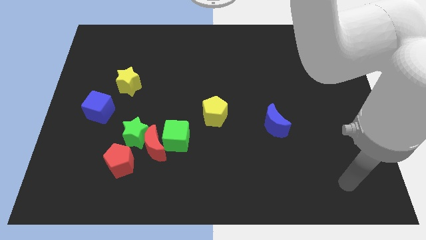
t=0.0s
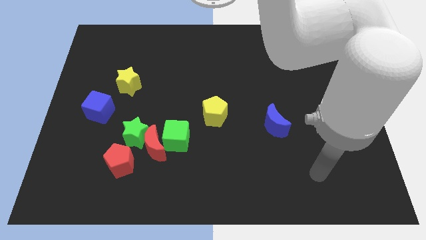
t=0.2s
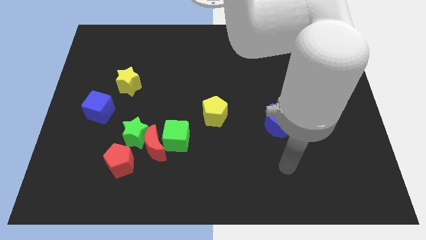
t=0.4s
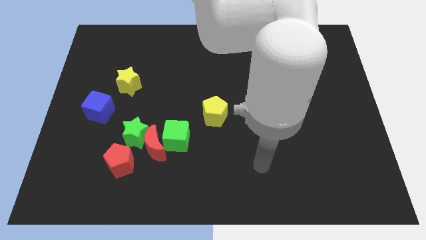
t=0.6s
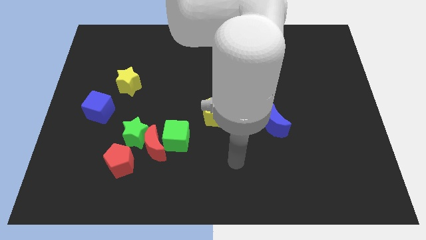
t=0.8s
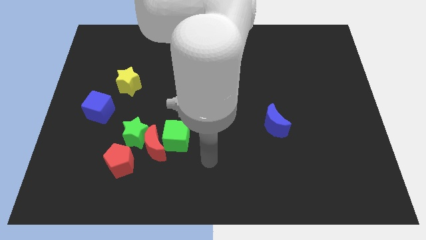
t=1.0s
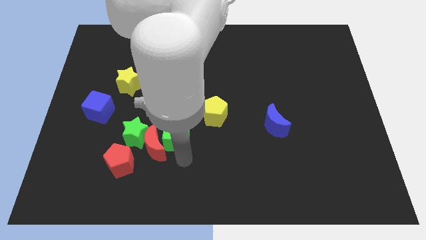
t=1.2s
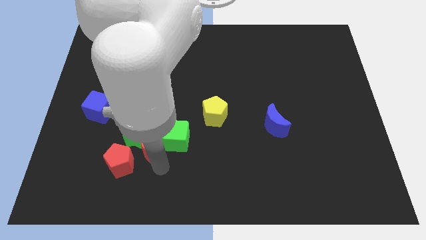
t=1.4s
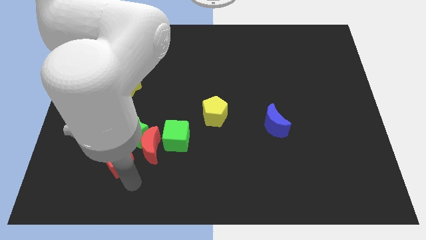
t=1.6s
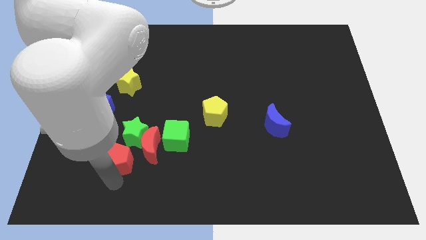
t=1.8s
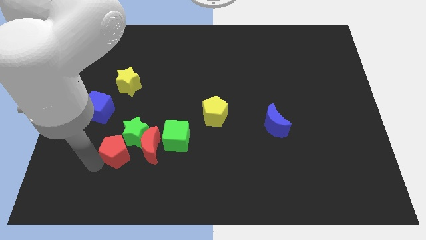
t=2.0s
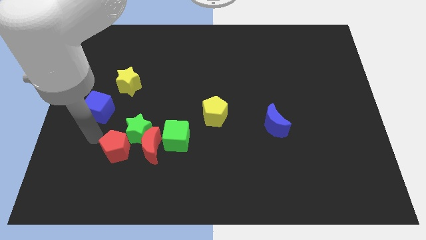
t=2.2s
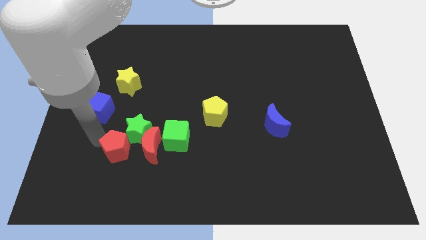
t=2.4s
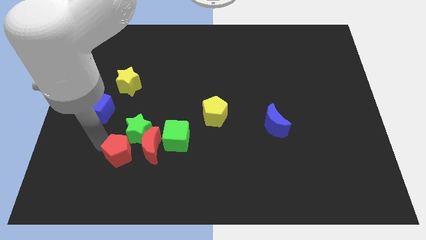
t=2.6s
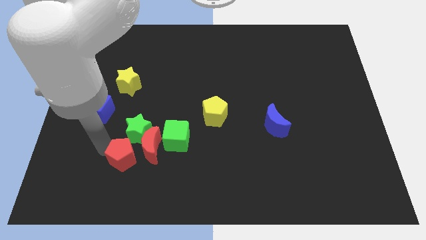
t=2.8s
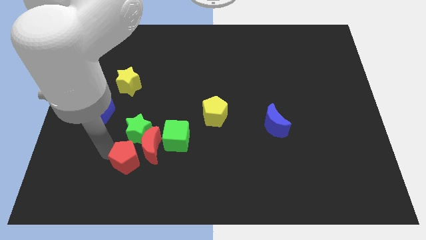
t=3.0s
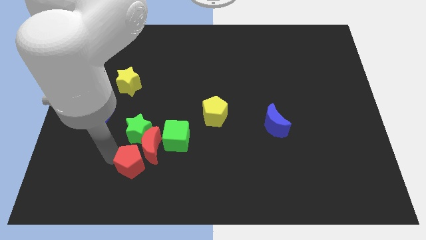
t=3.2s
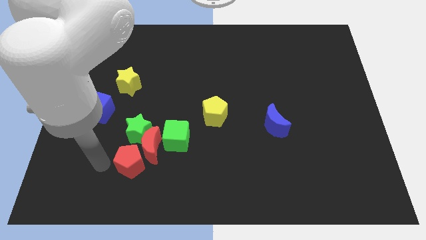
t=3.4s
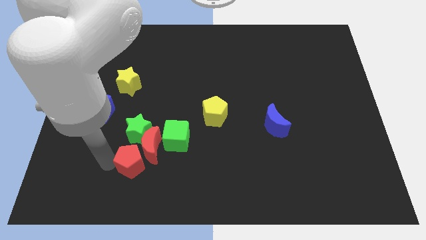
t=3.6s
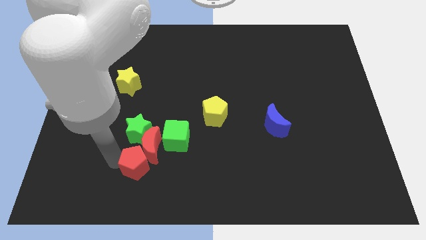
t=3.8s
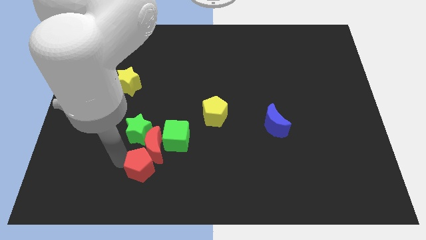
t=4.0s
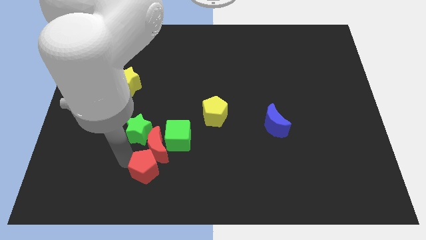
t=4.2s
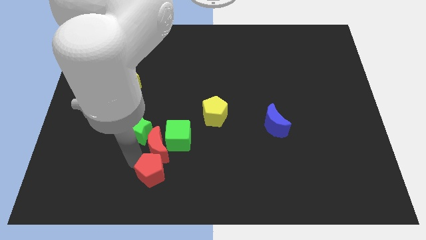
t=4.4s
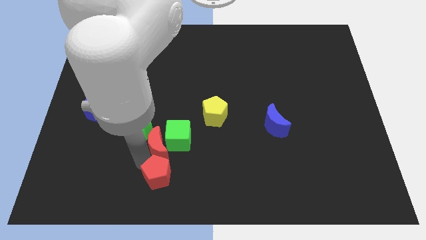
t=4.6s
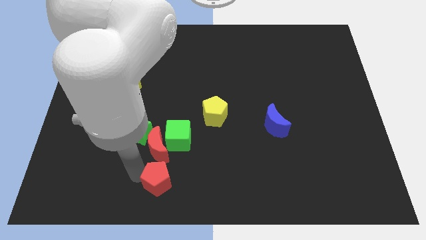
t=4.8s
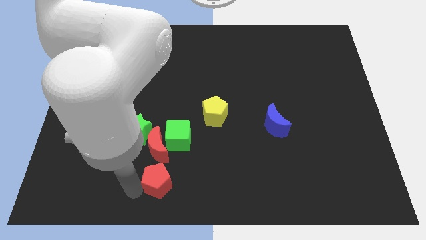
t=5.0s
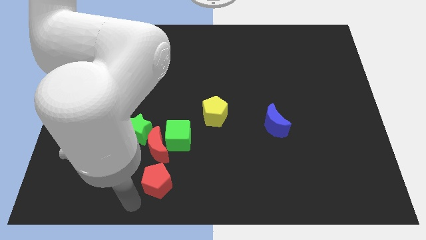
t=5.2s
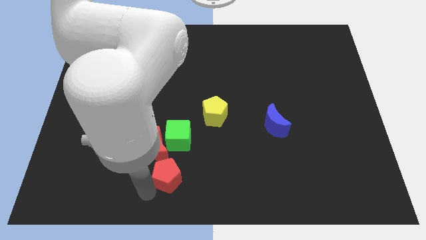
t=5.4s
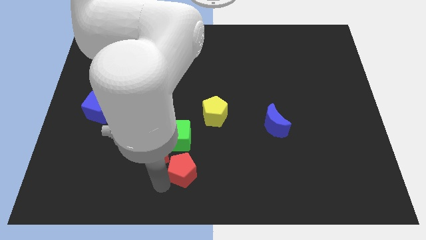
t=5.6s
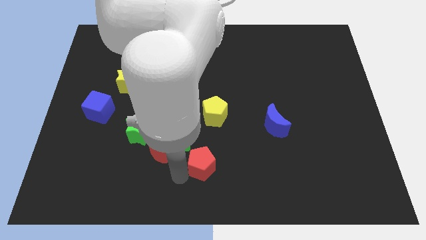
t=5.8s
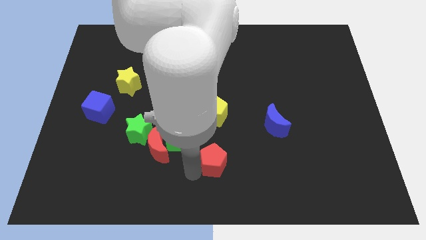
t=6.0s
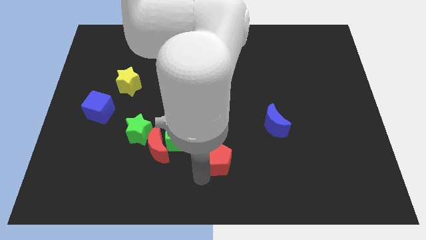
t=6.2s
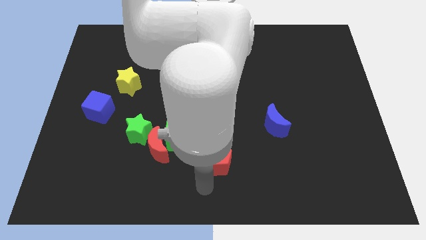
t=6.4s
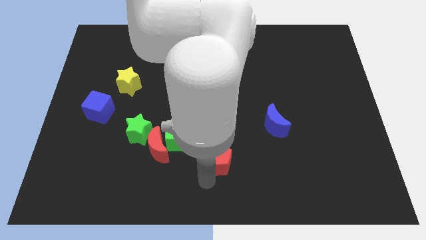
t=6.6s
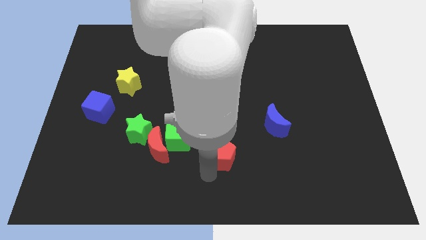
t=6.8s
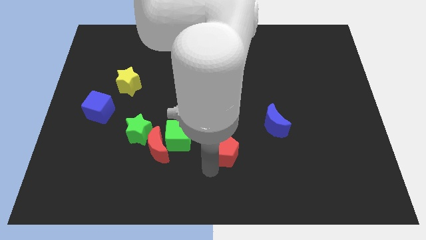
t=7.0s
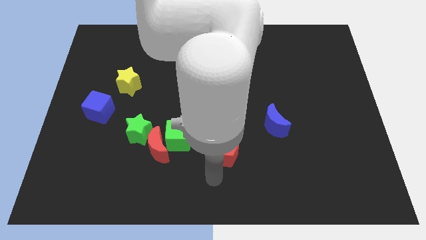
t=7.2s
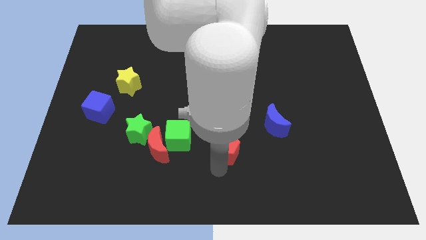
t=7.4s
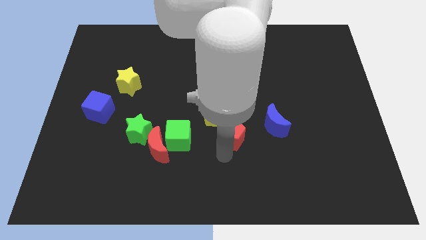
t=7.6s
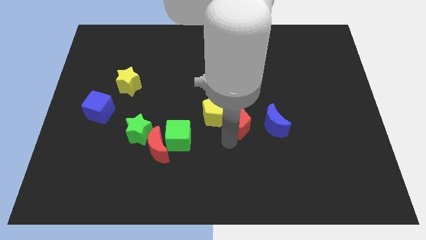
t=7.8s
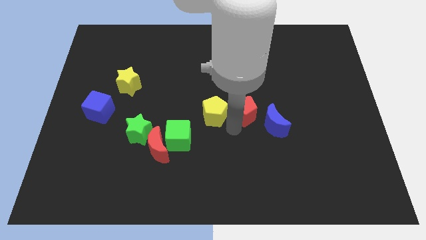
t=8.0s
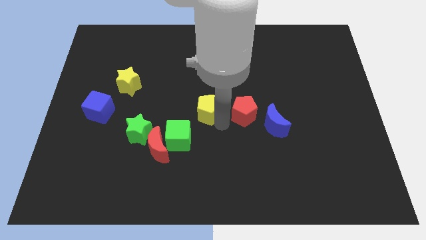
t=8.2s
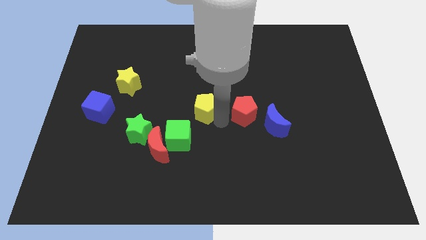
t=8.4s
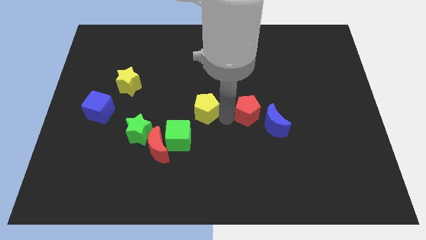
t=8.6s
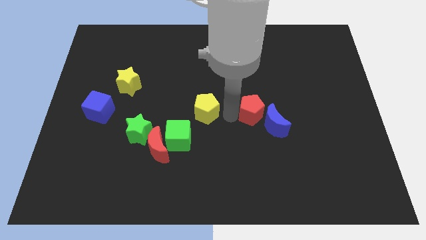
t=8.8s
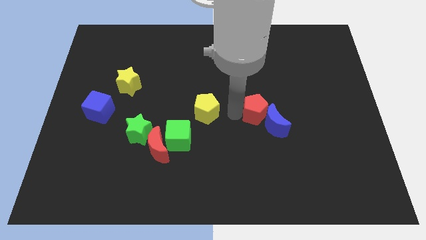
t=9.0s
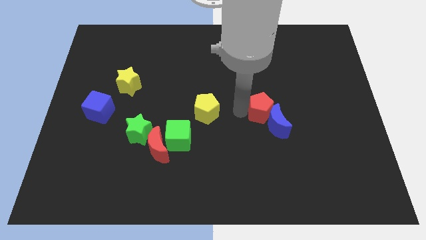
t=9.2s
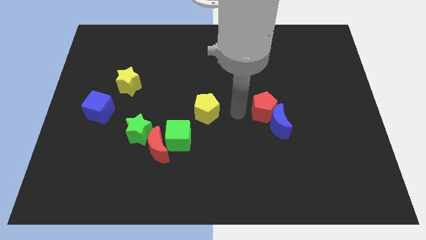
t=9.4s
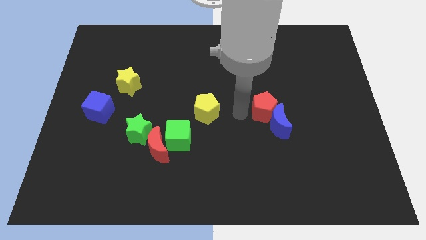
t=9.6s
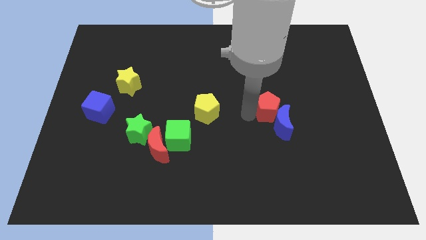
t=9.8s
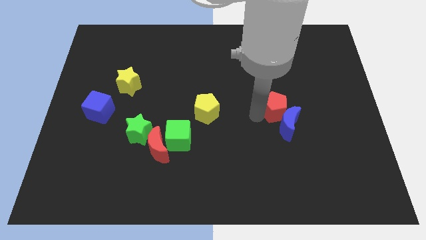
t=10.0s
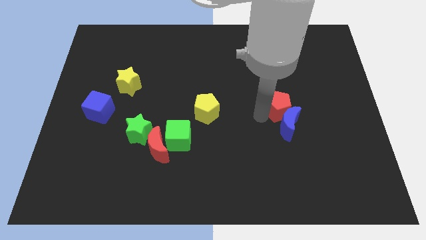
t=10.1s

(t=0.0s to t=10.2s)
push the red pentagon to the top right of the blue moon

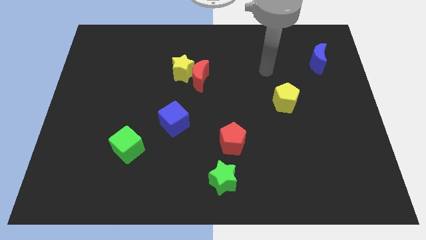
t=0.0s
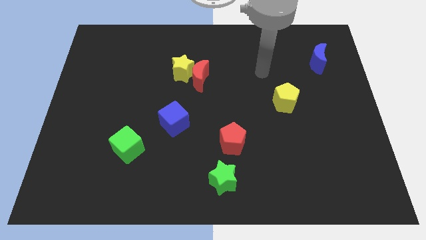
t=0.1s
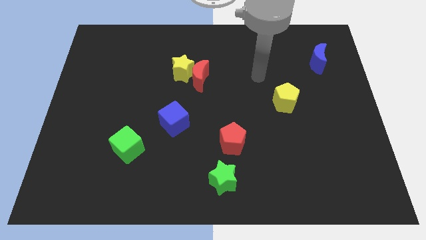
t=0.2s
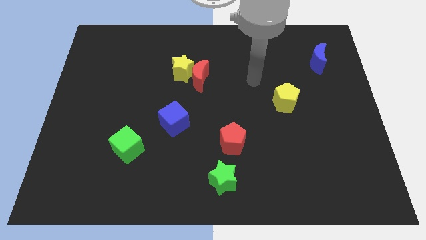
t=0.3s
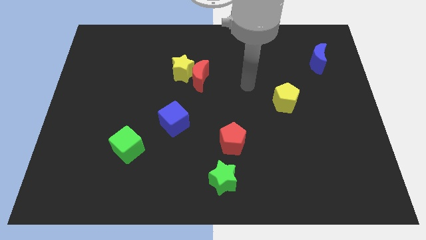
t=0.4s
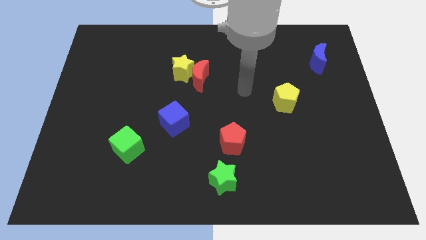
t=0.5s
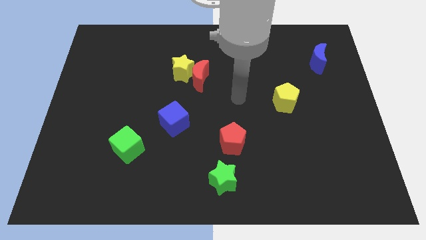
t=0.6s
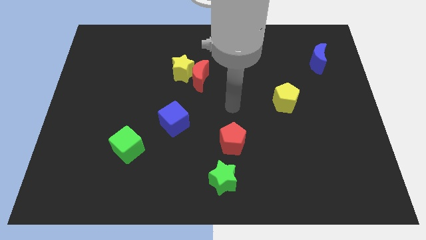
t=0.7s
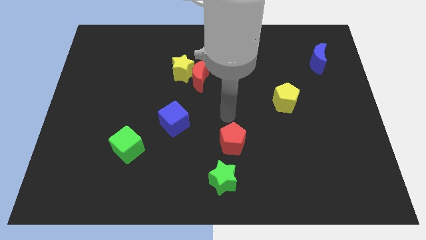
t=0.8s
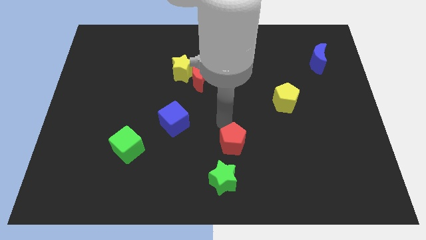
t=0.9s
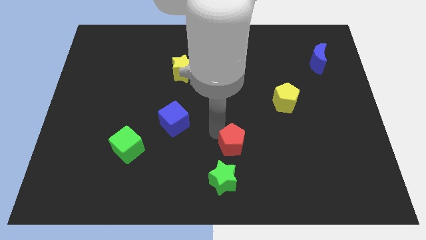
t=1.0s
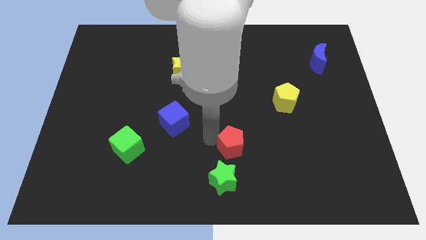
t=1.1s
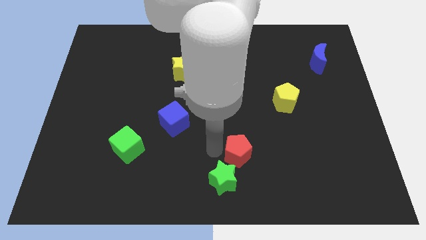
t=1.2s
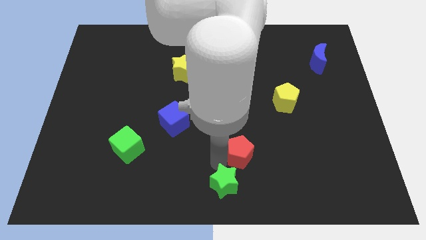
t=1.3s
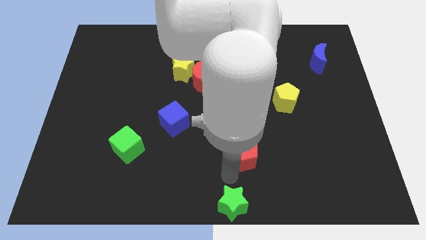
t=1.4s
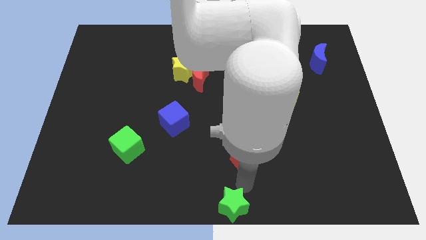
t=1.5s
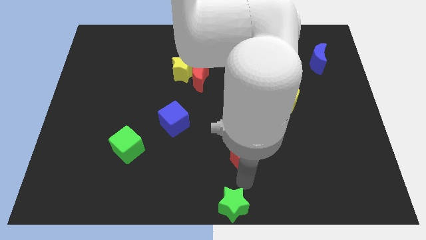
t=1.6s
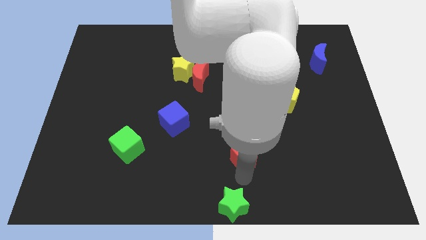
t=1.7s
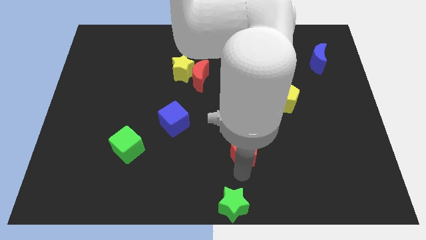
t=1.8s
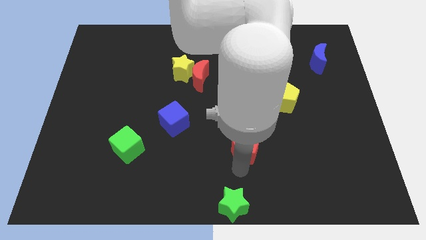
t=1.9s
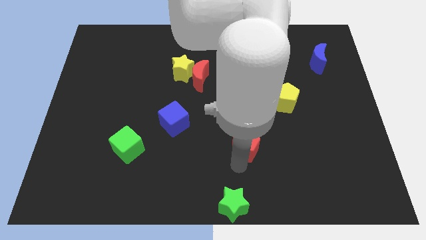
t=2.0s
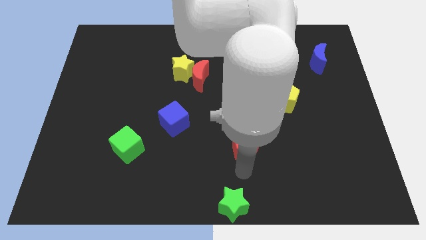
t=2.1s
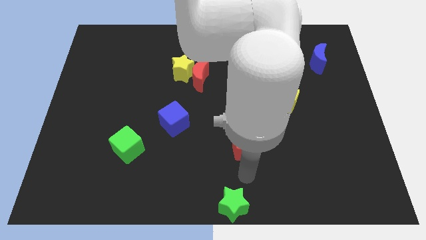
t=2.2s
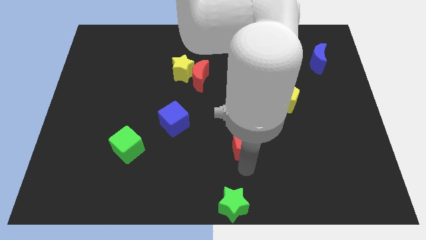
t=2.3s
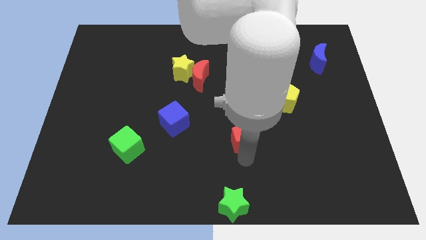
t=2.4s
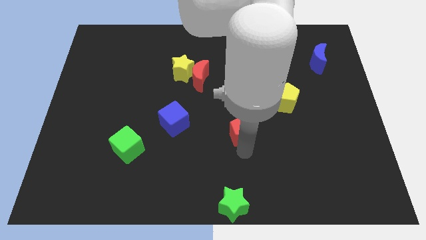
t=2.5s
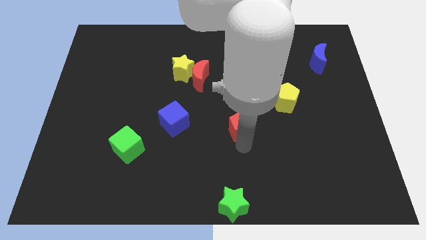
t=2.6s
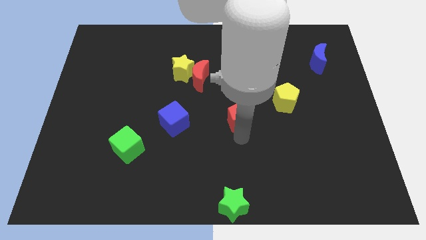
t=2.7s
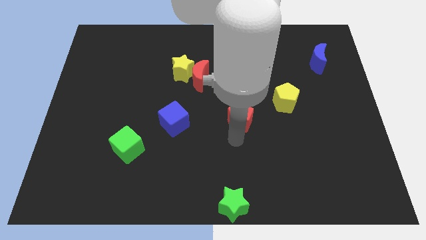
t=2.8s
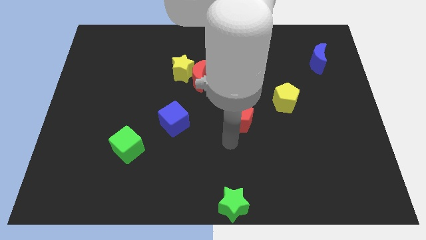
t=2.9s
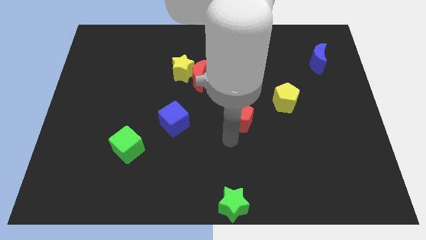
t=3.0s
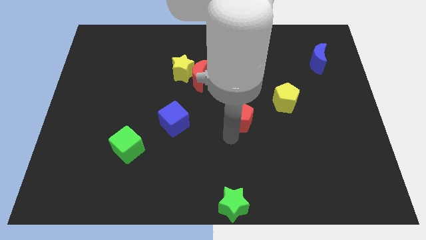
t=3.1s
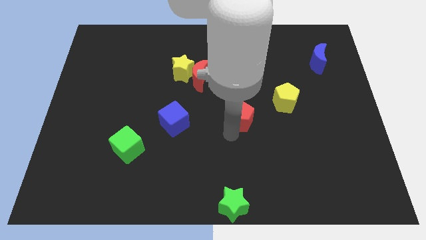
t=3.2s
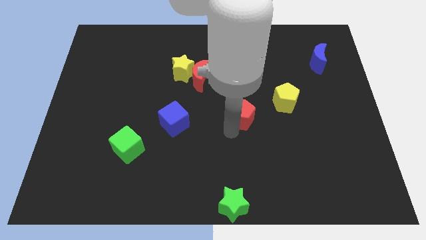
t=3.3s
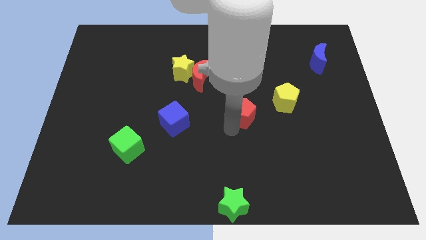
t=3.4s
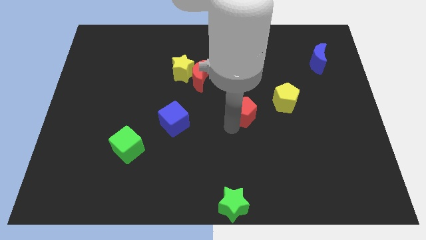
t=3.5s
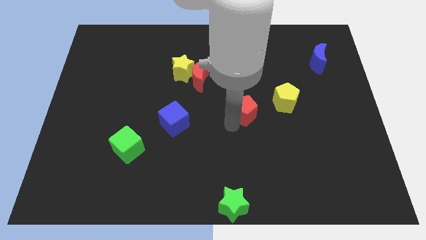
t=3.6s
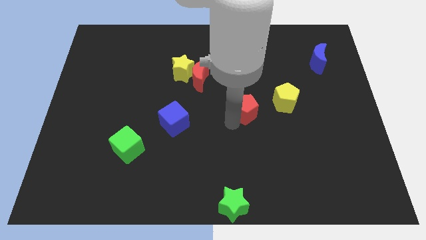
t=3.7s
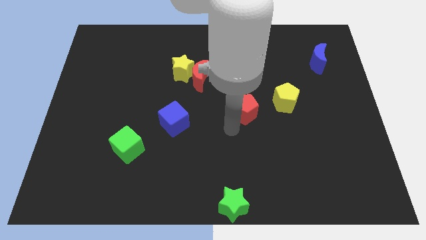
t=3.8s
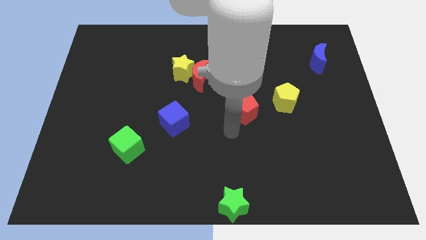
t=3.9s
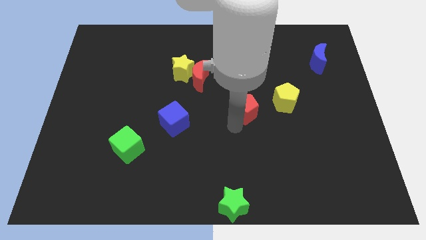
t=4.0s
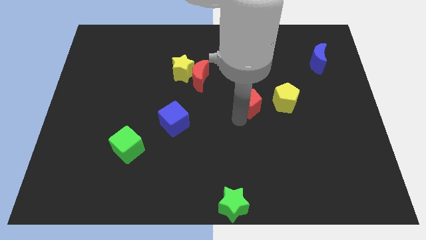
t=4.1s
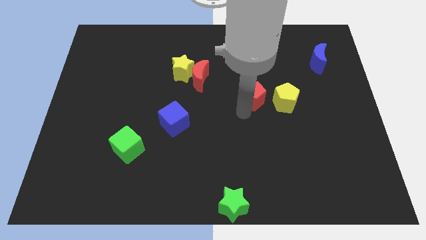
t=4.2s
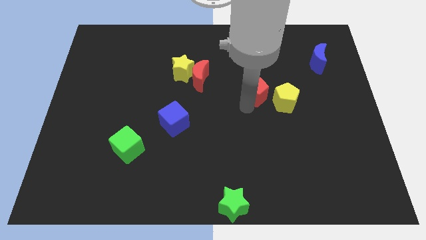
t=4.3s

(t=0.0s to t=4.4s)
slide the red pentagon diagonally up and to the left of the yellow pentagon
